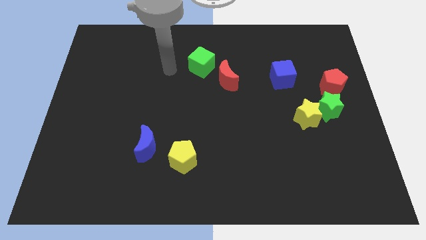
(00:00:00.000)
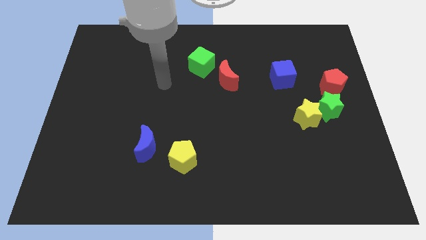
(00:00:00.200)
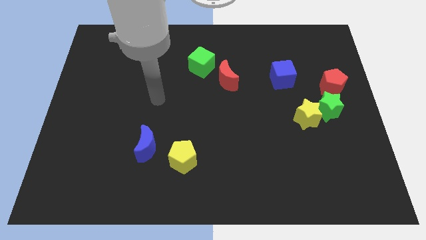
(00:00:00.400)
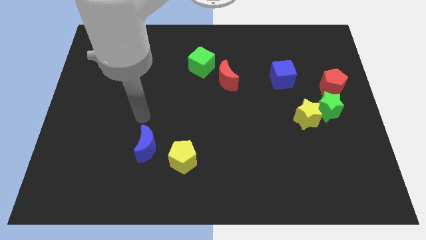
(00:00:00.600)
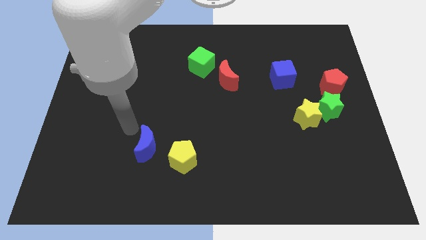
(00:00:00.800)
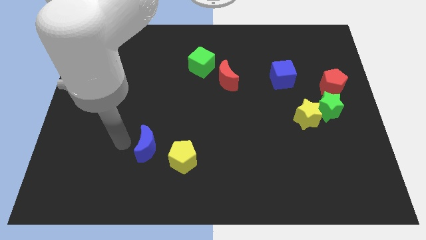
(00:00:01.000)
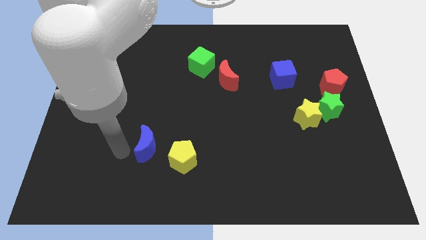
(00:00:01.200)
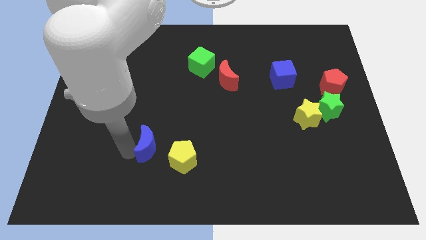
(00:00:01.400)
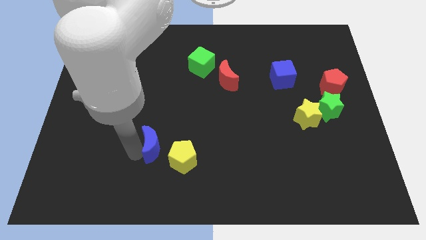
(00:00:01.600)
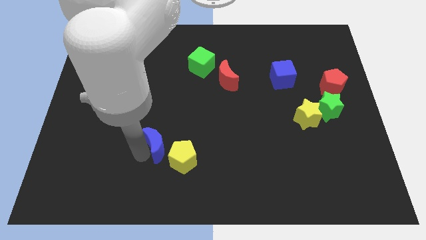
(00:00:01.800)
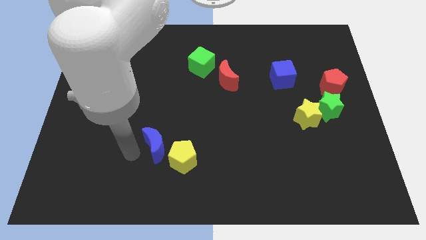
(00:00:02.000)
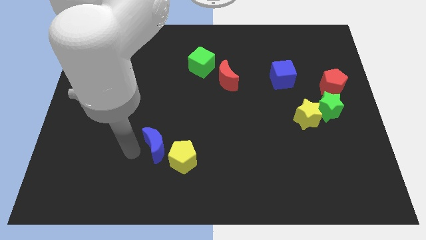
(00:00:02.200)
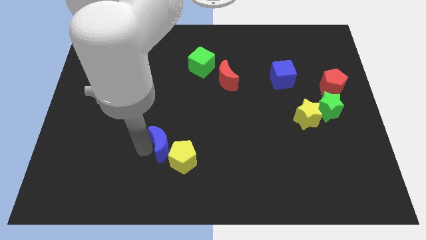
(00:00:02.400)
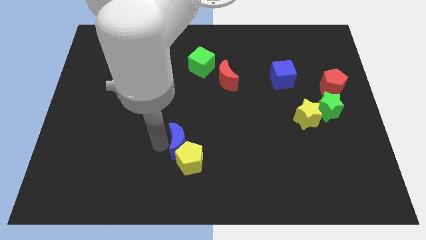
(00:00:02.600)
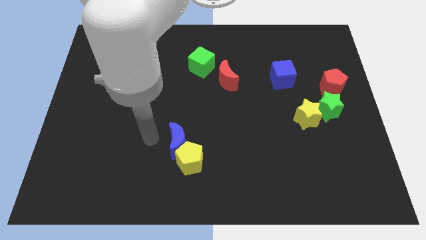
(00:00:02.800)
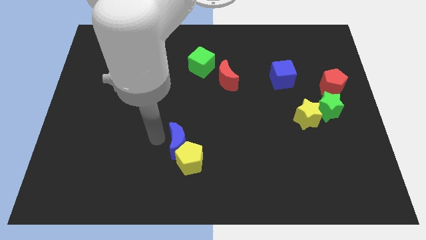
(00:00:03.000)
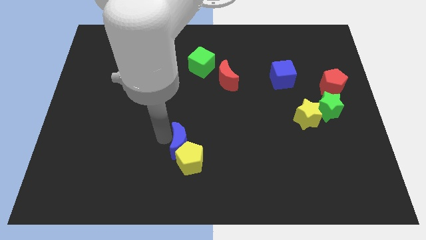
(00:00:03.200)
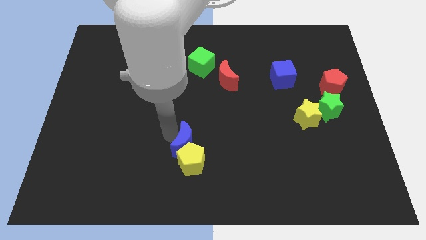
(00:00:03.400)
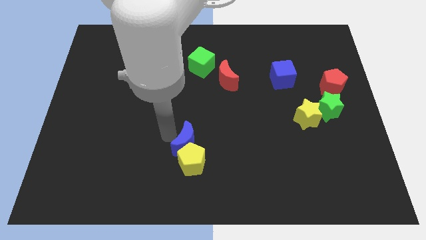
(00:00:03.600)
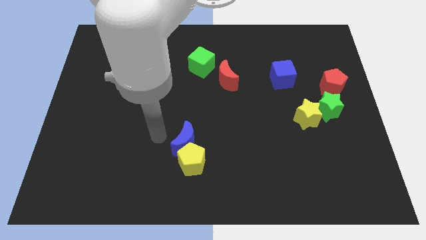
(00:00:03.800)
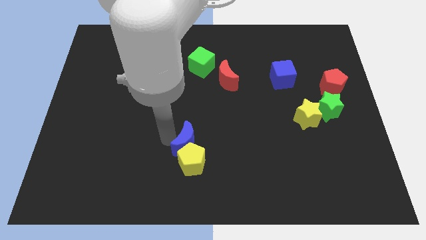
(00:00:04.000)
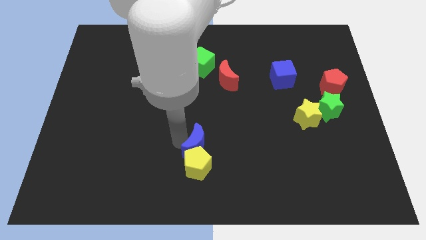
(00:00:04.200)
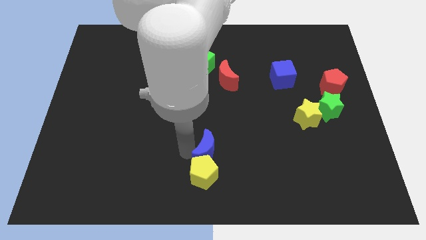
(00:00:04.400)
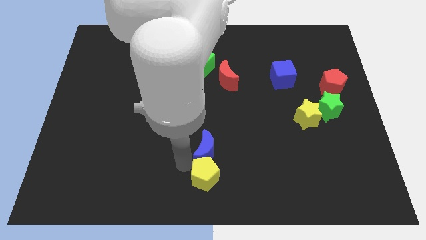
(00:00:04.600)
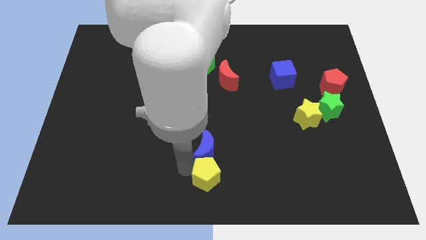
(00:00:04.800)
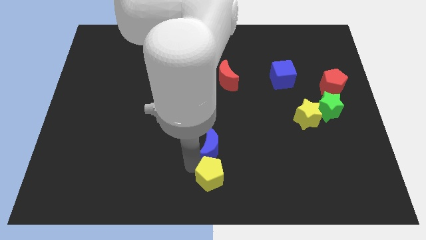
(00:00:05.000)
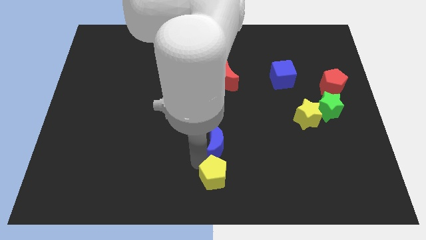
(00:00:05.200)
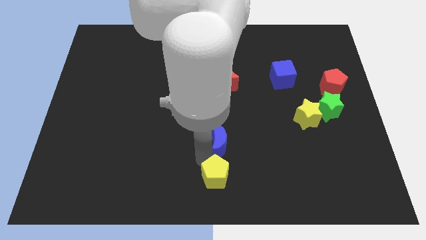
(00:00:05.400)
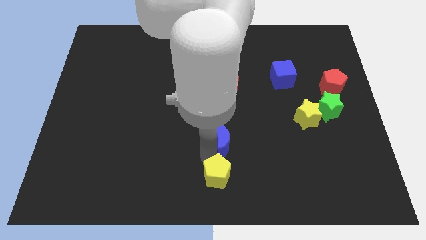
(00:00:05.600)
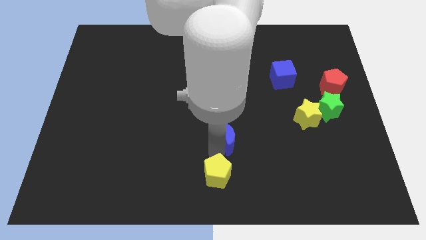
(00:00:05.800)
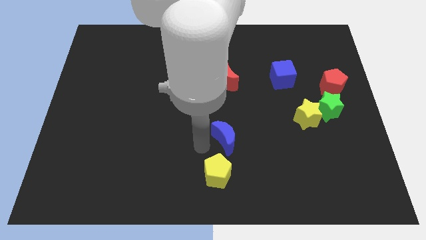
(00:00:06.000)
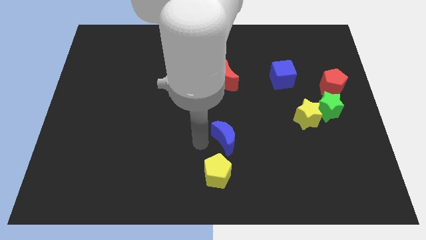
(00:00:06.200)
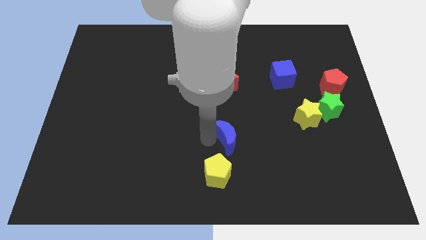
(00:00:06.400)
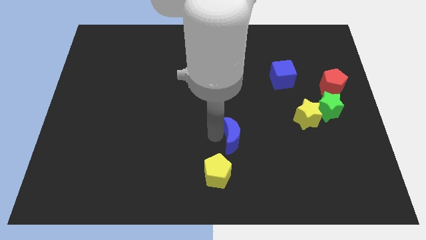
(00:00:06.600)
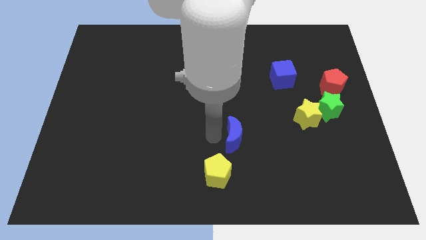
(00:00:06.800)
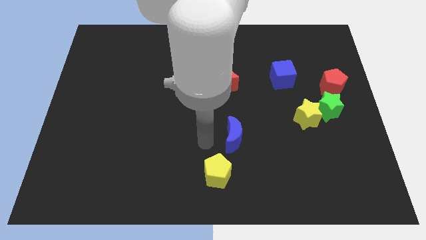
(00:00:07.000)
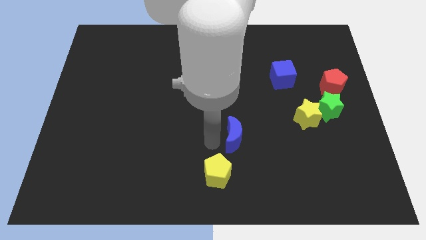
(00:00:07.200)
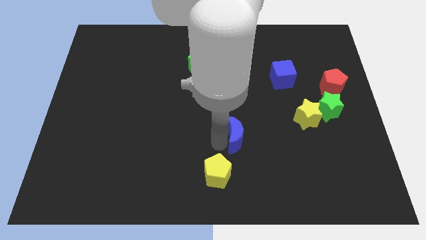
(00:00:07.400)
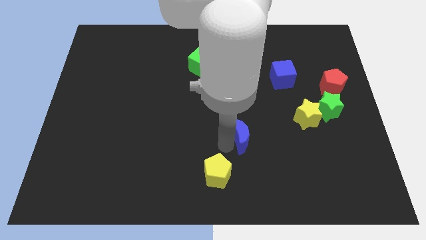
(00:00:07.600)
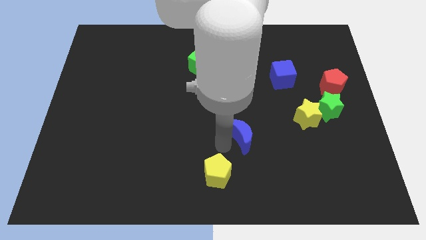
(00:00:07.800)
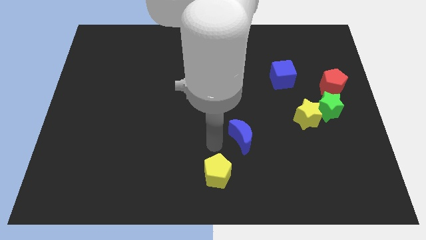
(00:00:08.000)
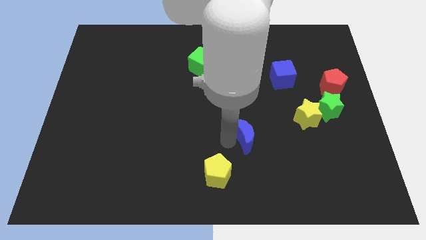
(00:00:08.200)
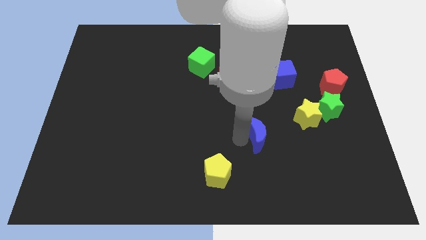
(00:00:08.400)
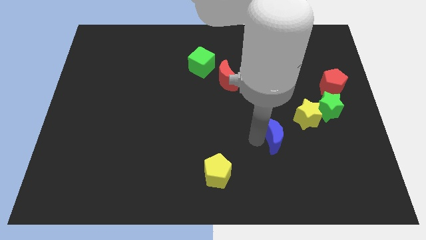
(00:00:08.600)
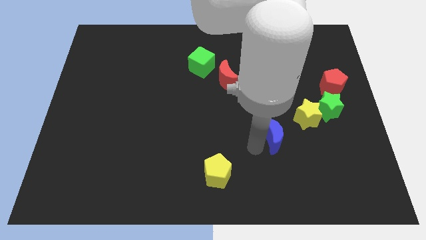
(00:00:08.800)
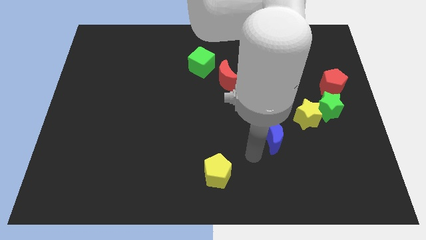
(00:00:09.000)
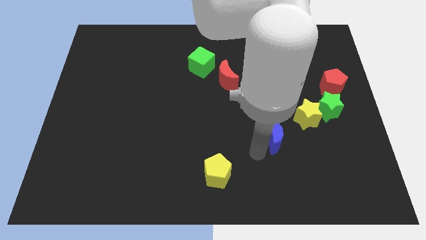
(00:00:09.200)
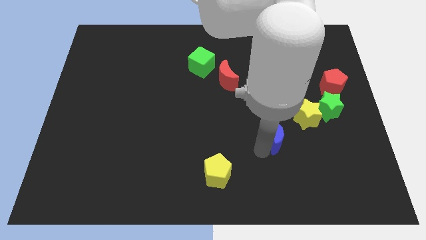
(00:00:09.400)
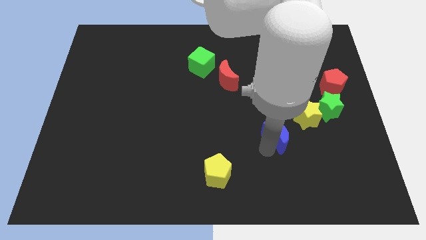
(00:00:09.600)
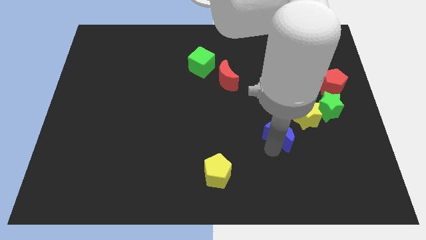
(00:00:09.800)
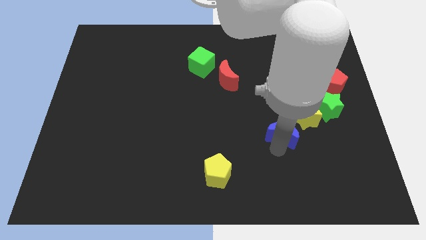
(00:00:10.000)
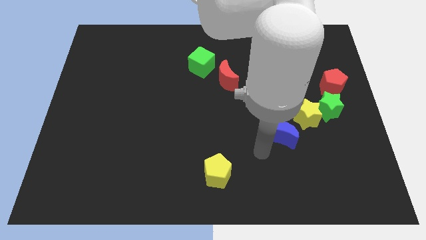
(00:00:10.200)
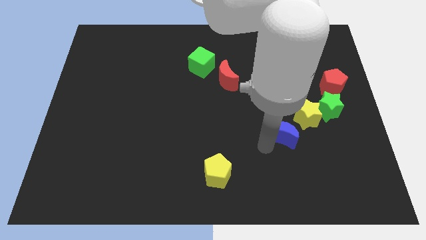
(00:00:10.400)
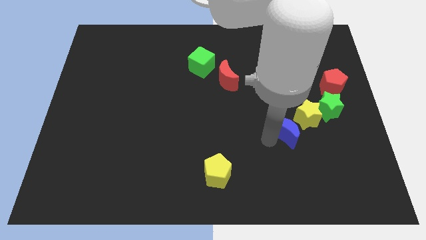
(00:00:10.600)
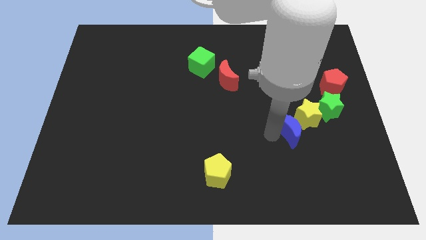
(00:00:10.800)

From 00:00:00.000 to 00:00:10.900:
push the blue moon to the yellow star

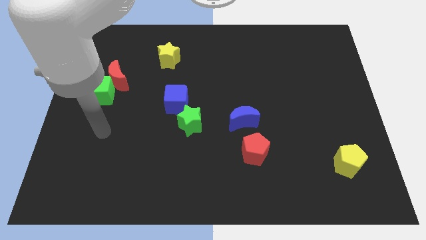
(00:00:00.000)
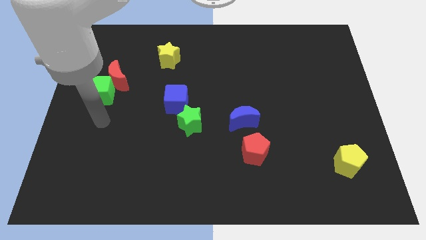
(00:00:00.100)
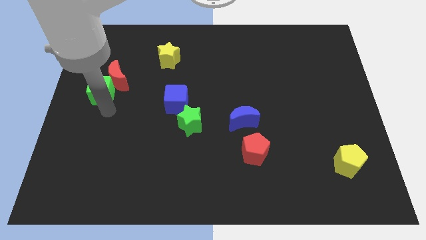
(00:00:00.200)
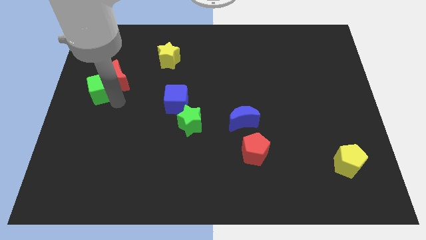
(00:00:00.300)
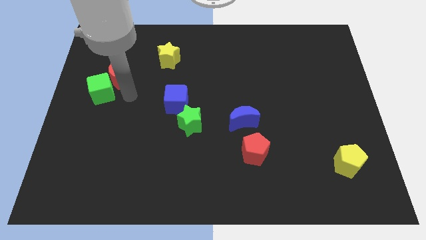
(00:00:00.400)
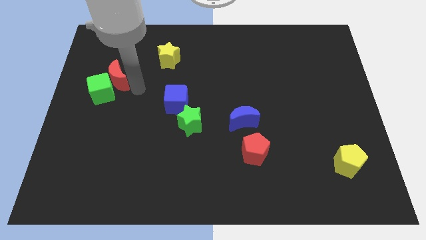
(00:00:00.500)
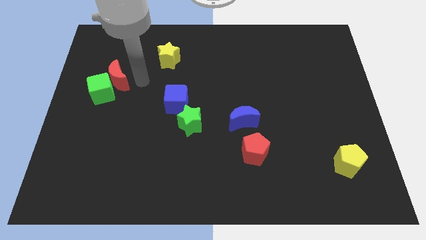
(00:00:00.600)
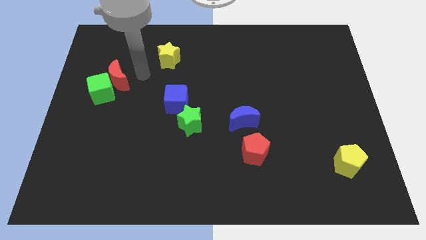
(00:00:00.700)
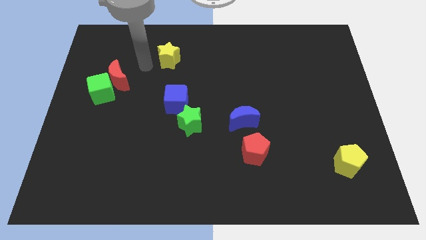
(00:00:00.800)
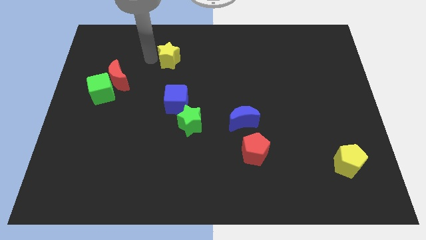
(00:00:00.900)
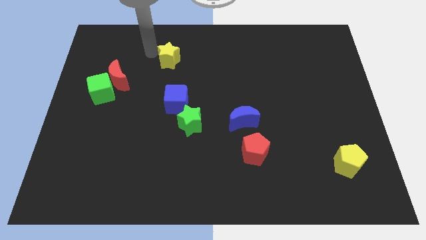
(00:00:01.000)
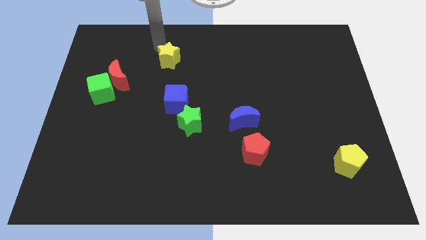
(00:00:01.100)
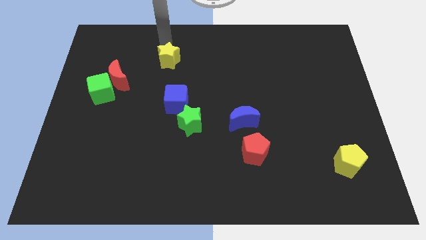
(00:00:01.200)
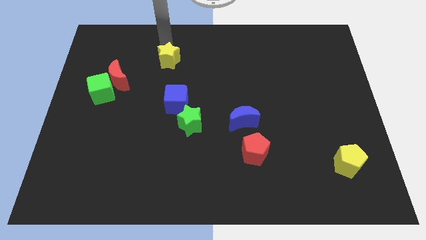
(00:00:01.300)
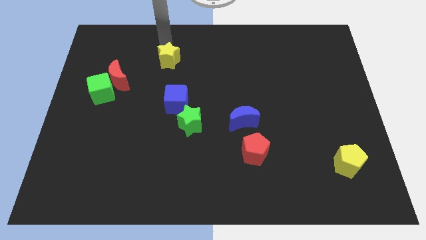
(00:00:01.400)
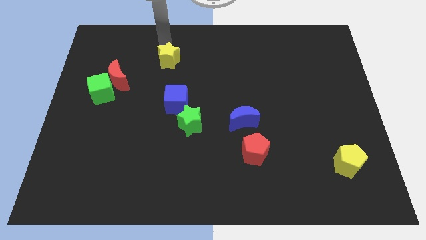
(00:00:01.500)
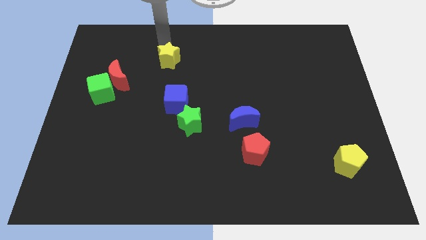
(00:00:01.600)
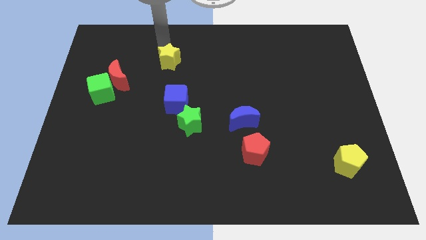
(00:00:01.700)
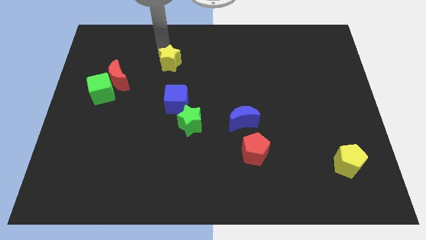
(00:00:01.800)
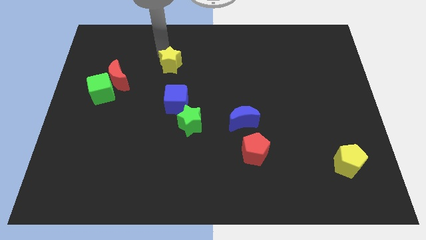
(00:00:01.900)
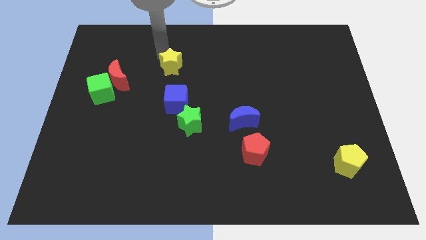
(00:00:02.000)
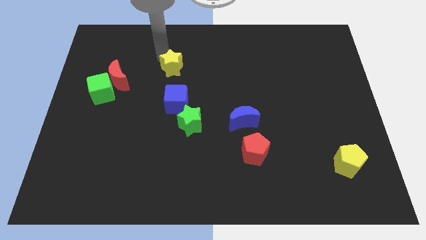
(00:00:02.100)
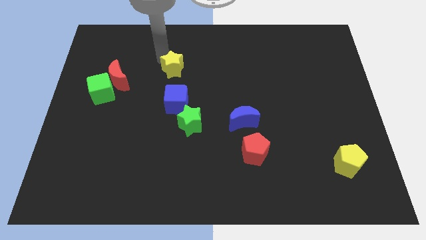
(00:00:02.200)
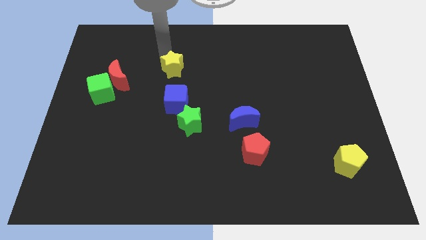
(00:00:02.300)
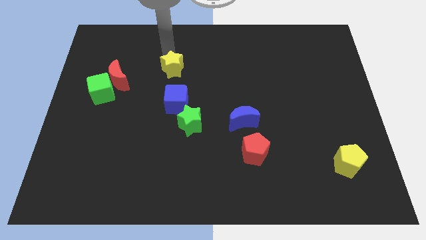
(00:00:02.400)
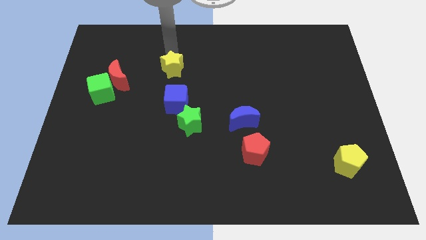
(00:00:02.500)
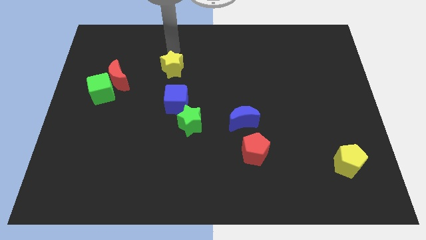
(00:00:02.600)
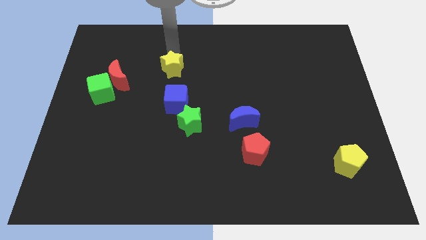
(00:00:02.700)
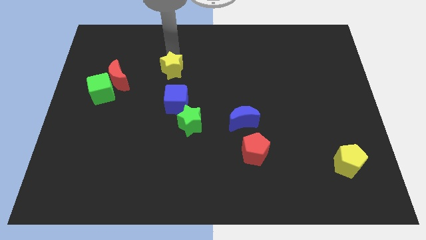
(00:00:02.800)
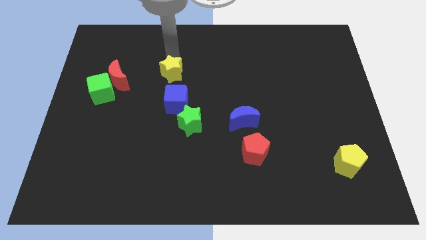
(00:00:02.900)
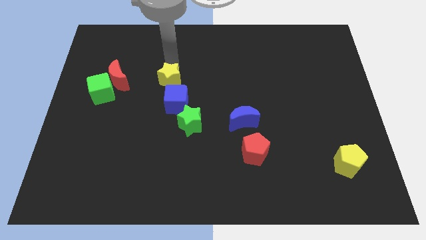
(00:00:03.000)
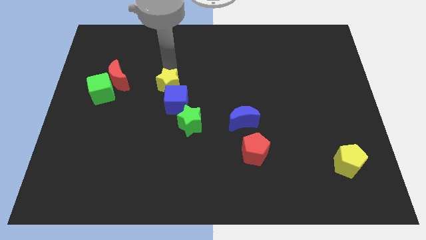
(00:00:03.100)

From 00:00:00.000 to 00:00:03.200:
move the yellow star close to the blue cube
